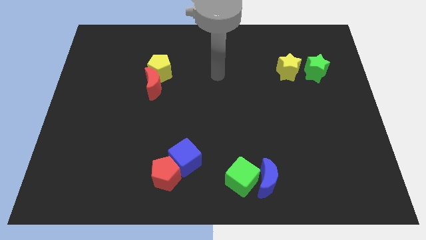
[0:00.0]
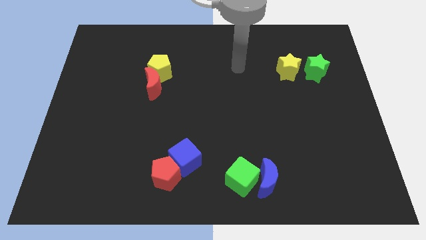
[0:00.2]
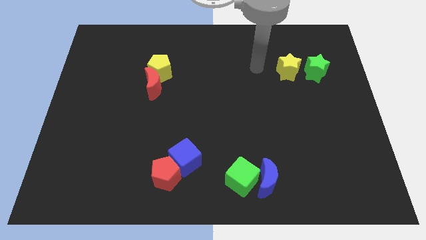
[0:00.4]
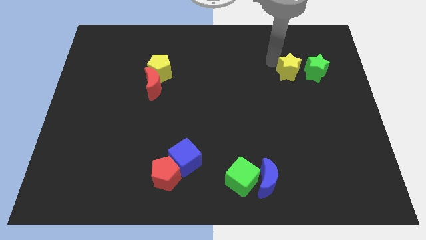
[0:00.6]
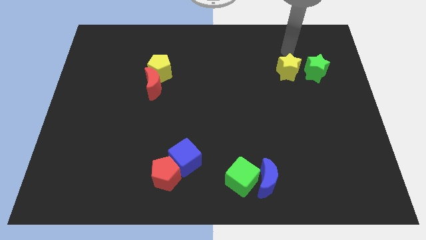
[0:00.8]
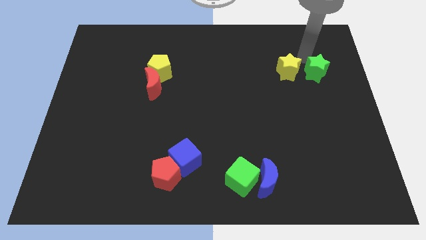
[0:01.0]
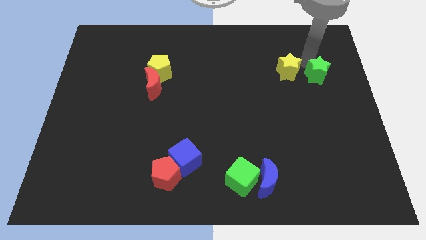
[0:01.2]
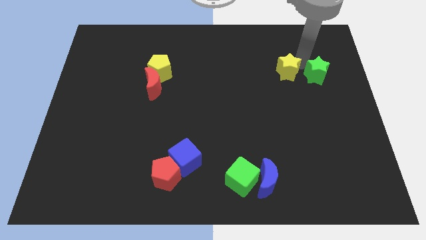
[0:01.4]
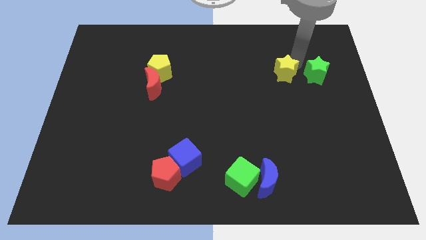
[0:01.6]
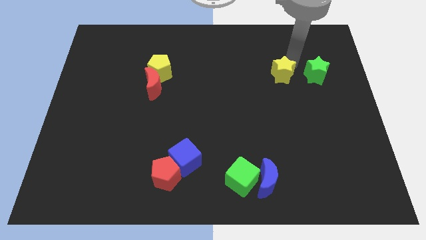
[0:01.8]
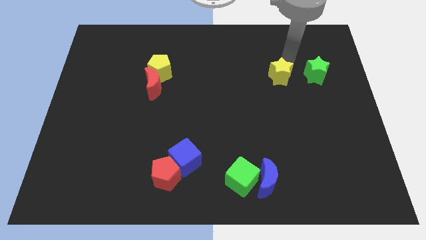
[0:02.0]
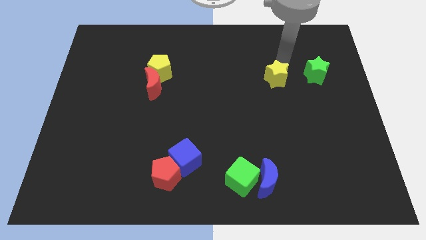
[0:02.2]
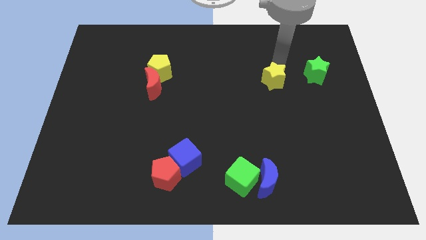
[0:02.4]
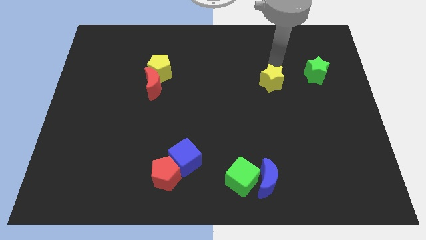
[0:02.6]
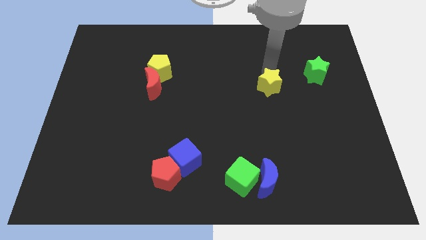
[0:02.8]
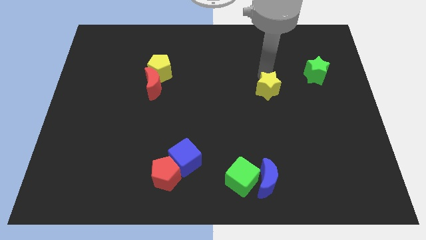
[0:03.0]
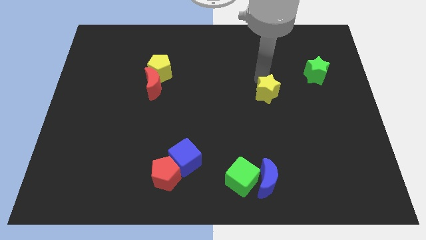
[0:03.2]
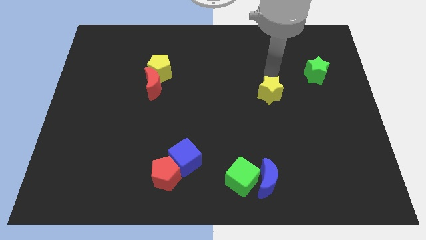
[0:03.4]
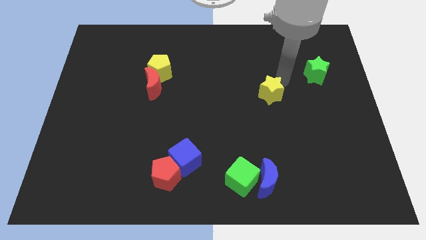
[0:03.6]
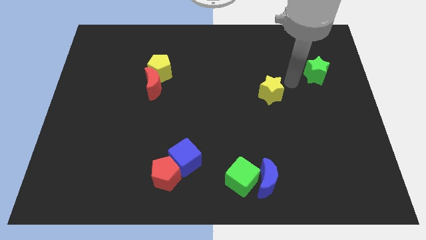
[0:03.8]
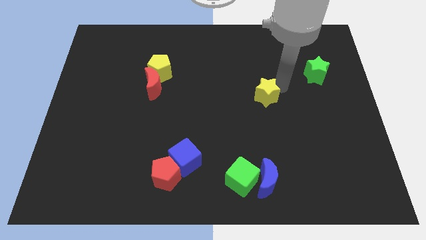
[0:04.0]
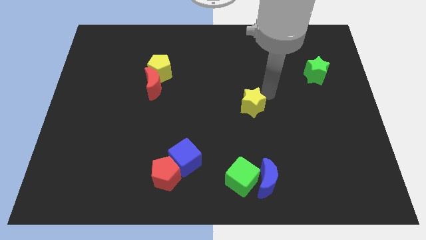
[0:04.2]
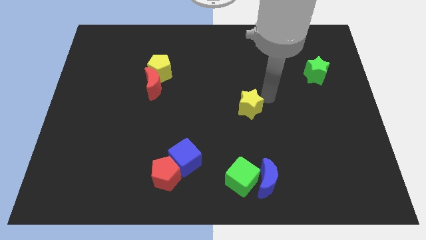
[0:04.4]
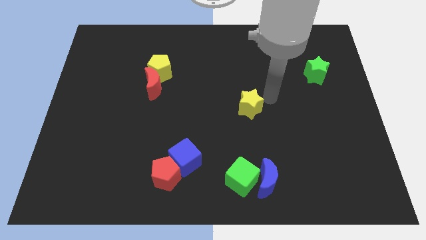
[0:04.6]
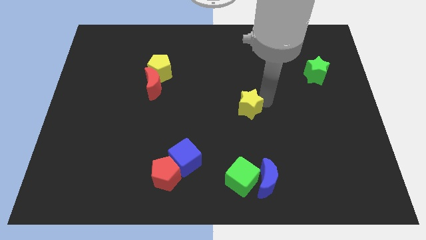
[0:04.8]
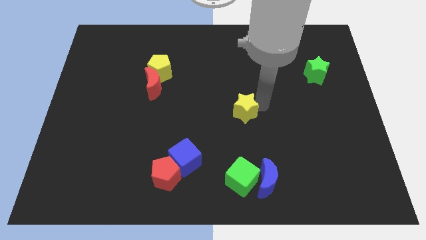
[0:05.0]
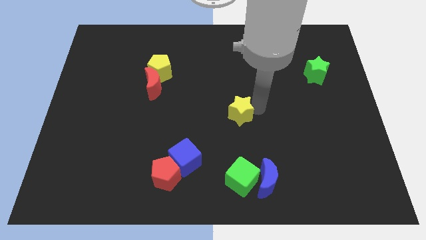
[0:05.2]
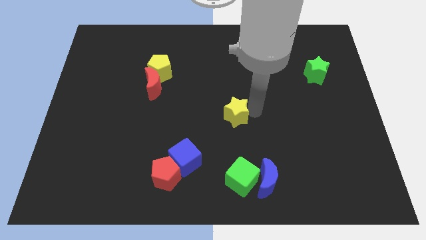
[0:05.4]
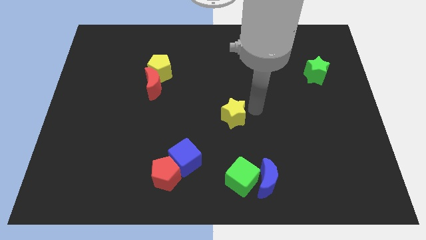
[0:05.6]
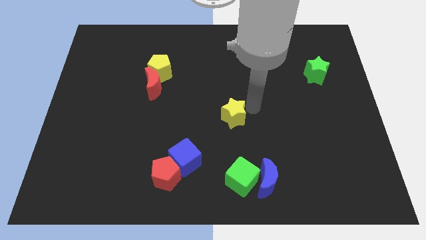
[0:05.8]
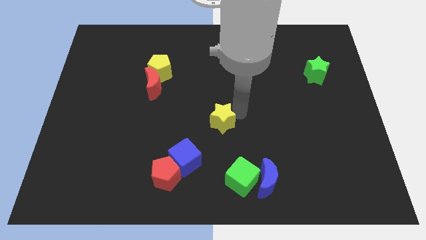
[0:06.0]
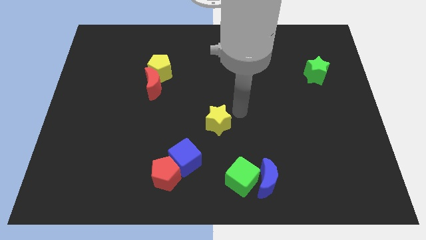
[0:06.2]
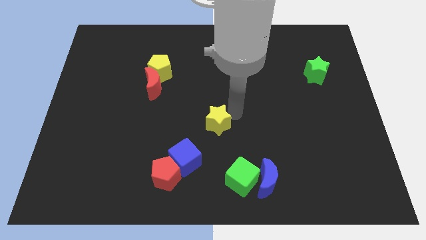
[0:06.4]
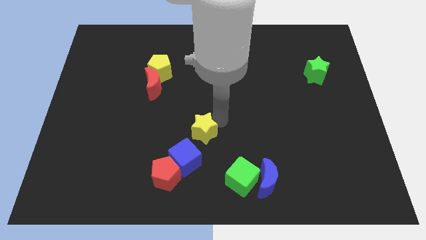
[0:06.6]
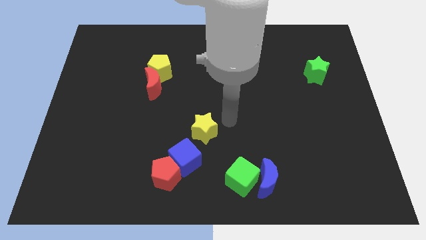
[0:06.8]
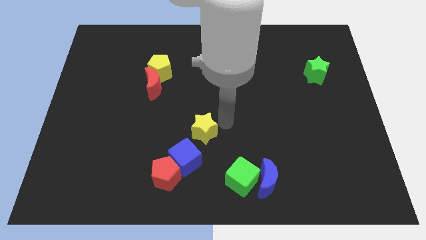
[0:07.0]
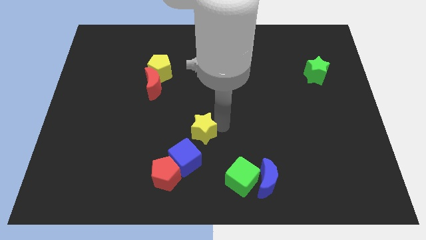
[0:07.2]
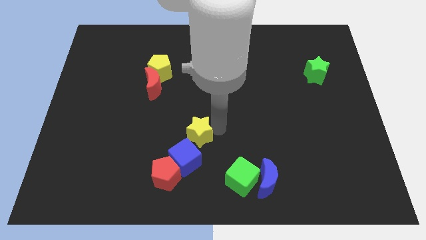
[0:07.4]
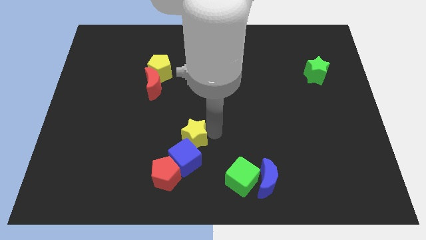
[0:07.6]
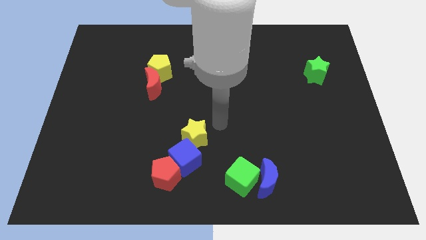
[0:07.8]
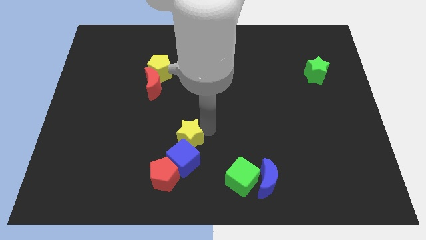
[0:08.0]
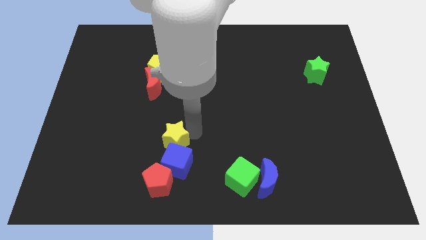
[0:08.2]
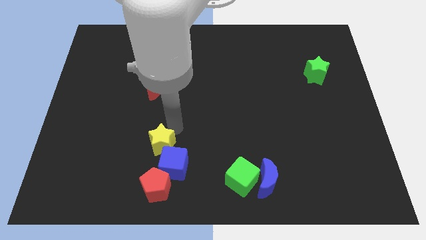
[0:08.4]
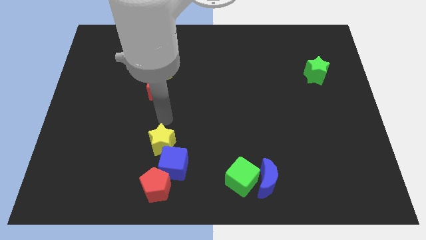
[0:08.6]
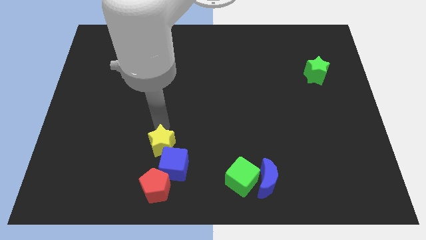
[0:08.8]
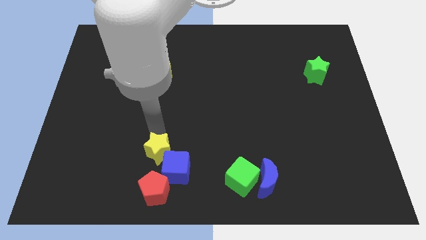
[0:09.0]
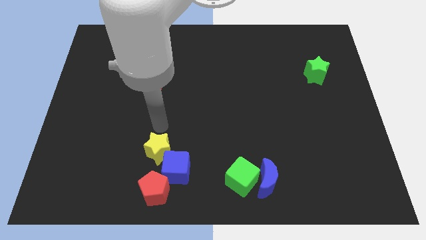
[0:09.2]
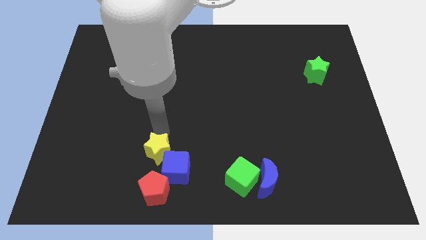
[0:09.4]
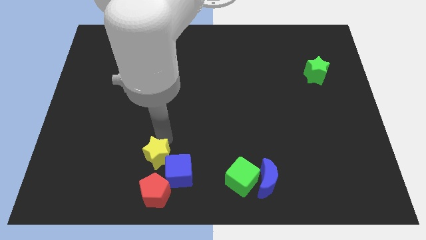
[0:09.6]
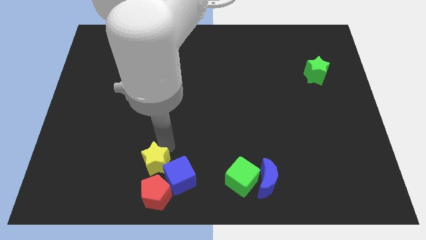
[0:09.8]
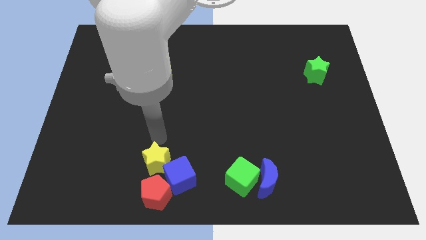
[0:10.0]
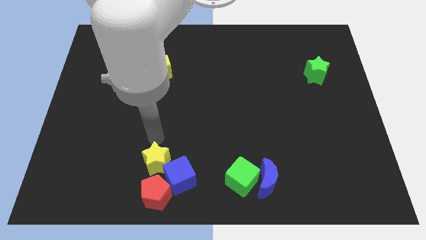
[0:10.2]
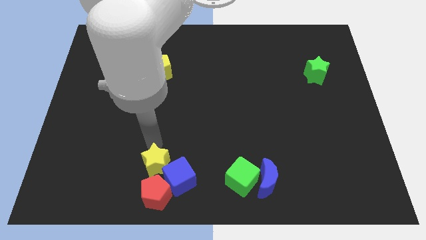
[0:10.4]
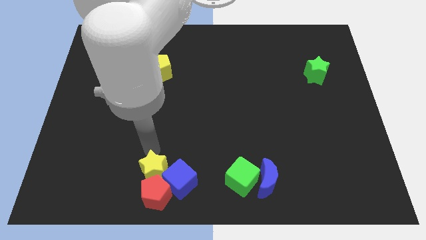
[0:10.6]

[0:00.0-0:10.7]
slide the yellow star next to the red pentagon

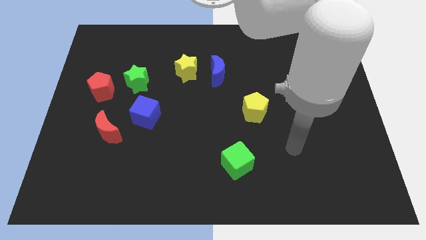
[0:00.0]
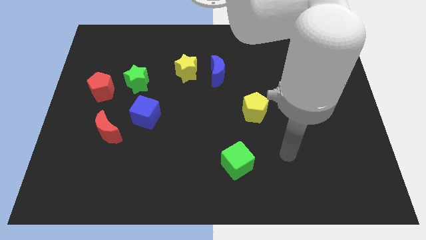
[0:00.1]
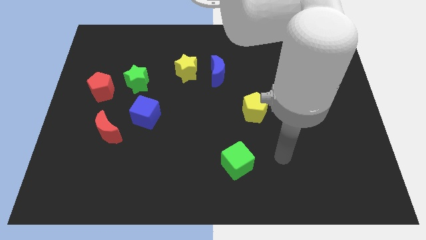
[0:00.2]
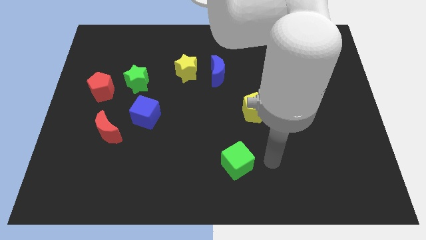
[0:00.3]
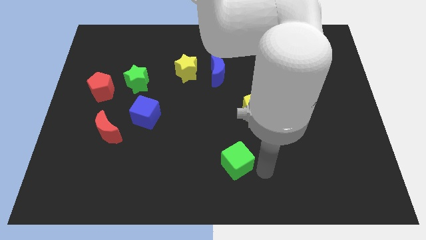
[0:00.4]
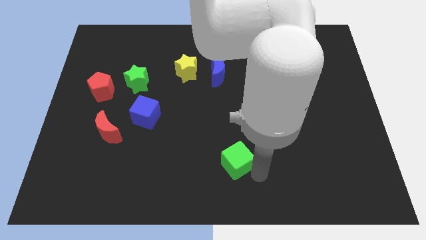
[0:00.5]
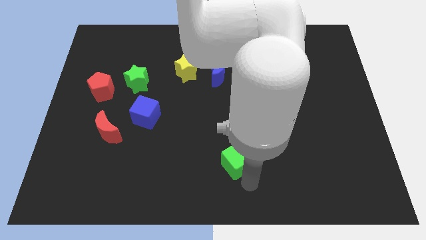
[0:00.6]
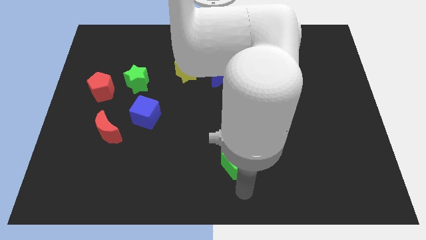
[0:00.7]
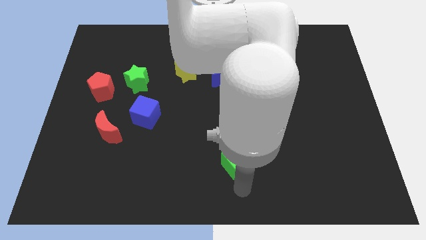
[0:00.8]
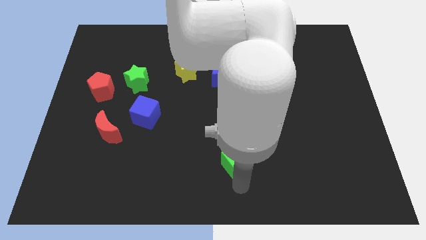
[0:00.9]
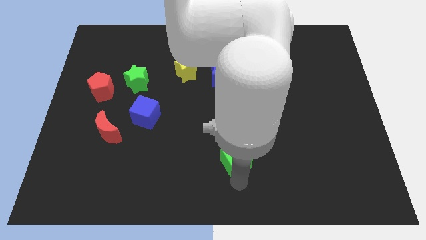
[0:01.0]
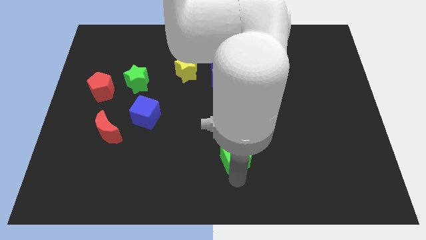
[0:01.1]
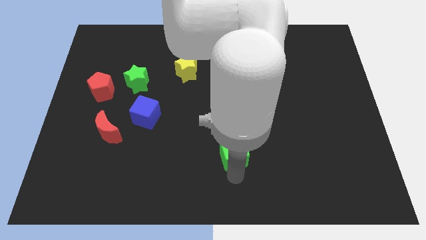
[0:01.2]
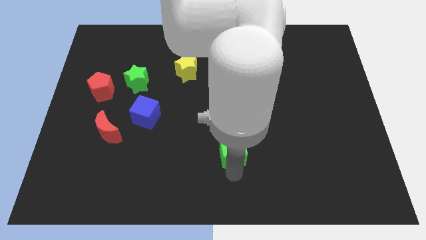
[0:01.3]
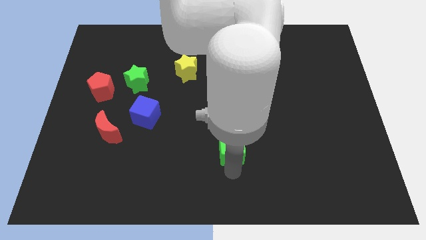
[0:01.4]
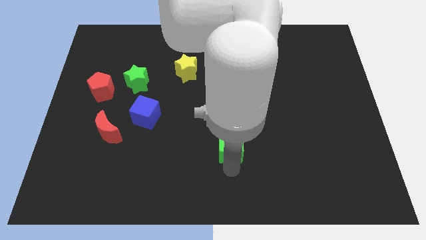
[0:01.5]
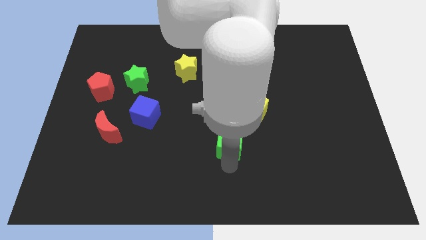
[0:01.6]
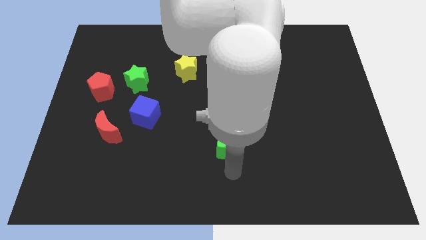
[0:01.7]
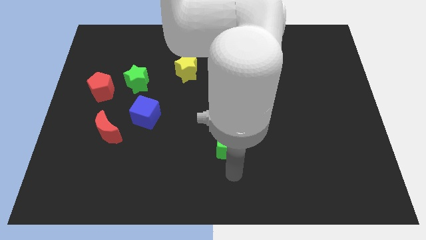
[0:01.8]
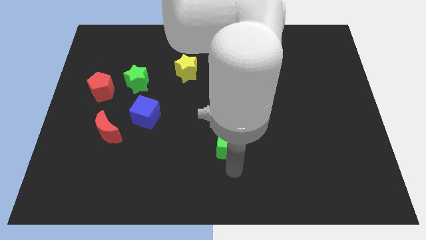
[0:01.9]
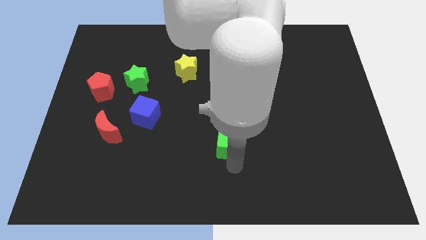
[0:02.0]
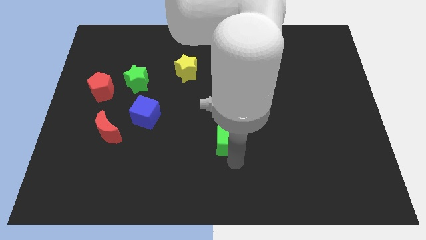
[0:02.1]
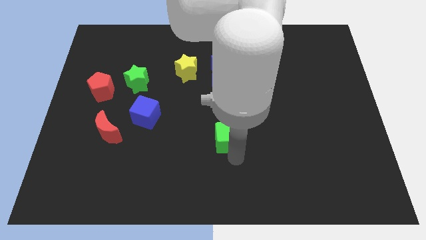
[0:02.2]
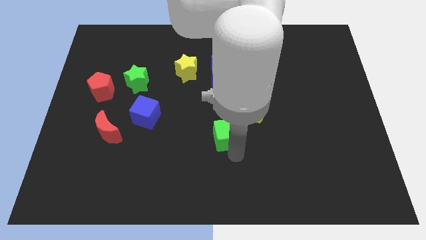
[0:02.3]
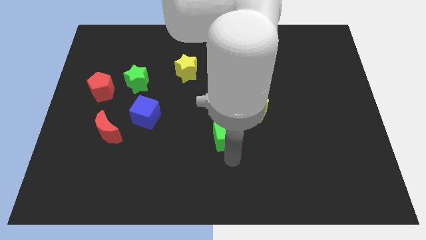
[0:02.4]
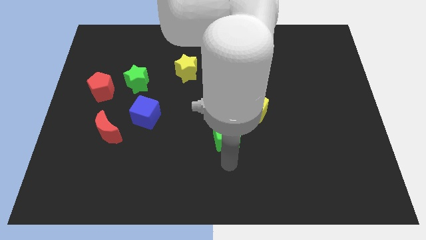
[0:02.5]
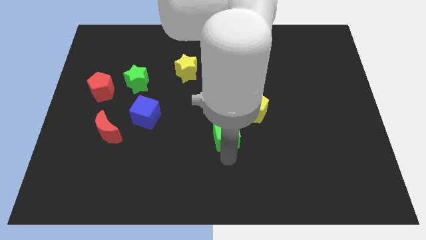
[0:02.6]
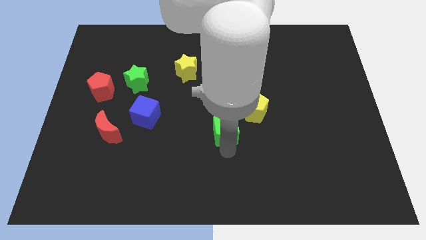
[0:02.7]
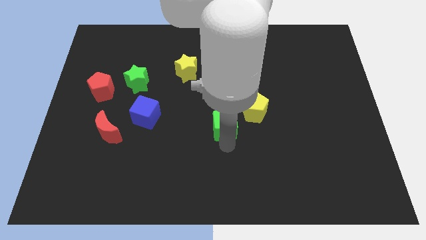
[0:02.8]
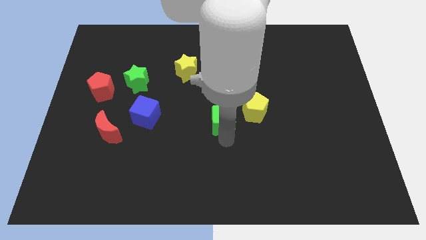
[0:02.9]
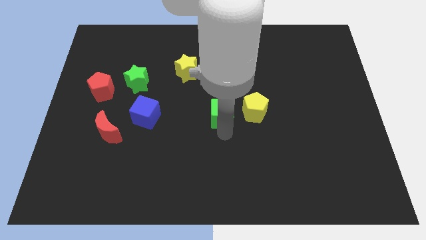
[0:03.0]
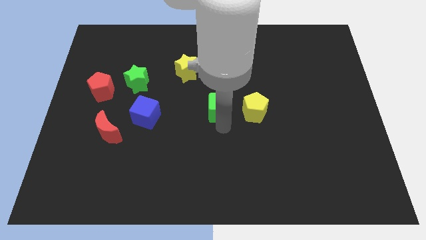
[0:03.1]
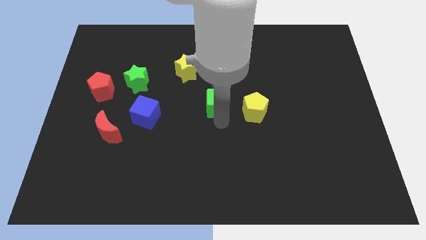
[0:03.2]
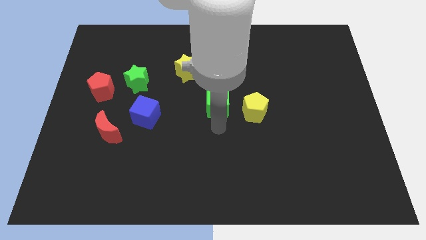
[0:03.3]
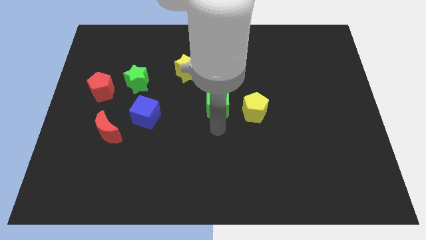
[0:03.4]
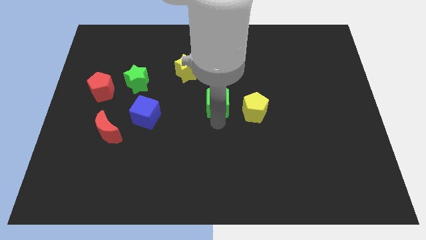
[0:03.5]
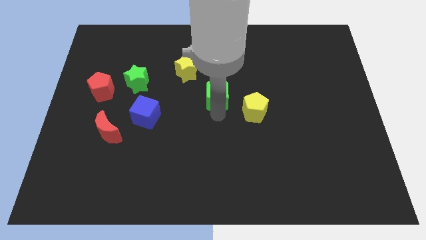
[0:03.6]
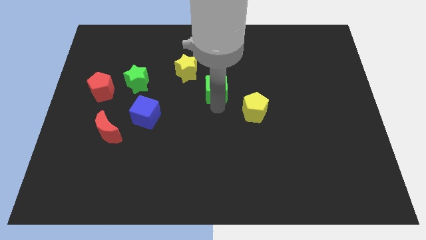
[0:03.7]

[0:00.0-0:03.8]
slide the green cube towards the blue moon
